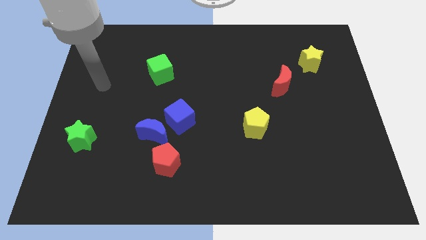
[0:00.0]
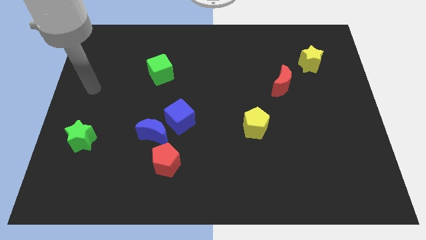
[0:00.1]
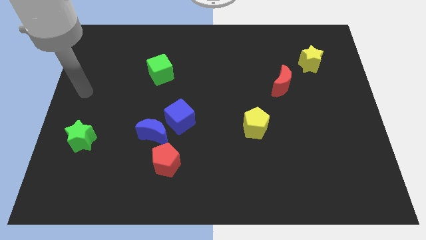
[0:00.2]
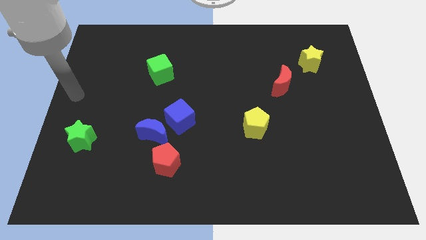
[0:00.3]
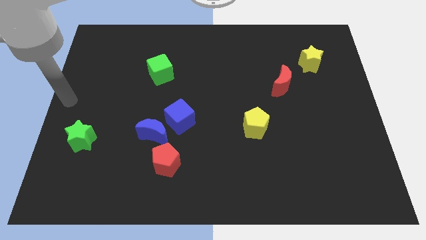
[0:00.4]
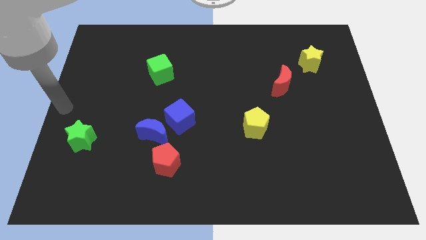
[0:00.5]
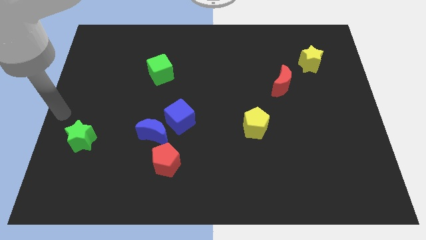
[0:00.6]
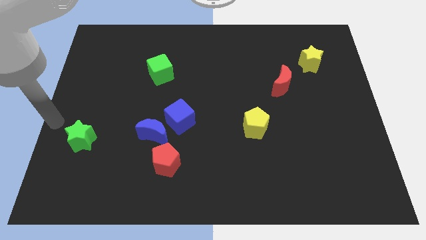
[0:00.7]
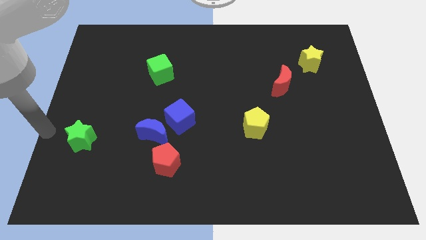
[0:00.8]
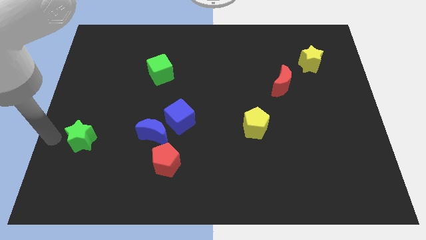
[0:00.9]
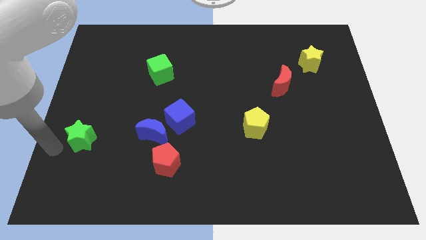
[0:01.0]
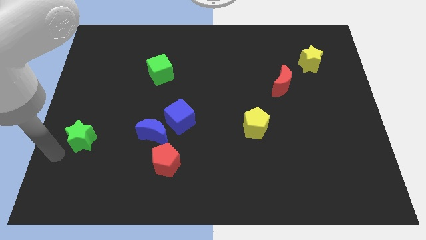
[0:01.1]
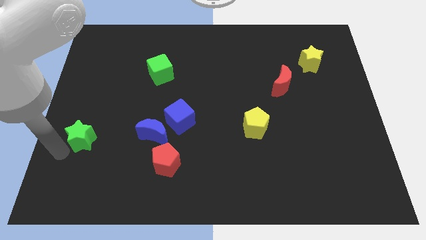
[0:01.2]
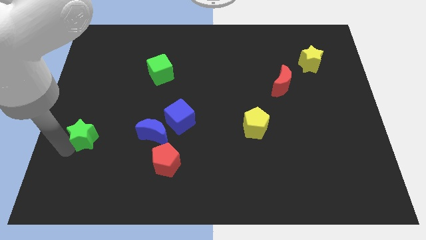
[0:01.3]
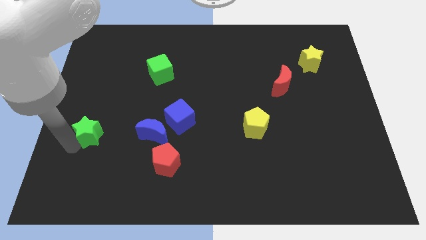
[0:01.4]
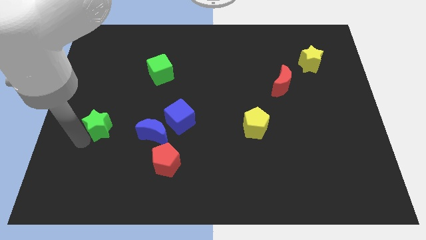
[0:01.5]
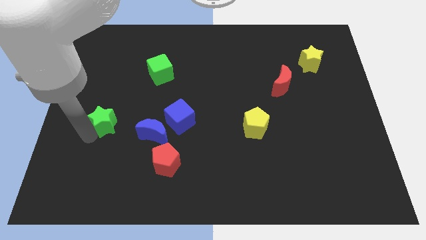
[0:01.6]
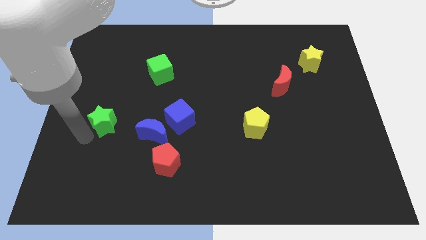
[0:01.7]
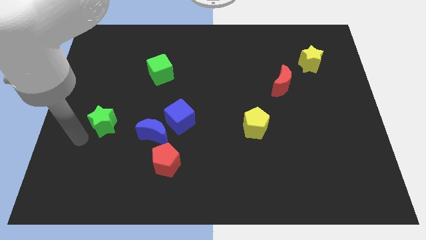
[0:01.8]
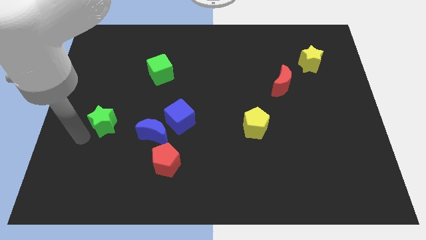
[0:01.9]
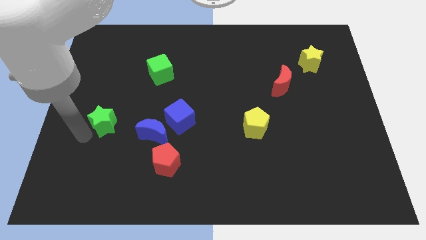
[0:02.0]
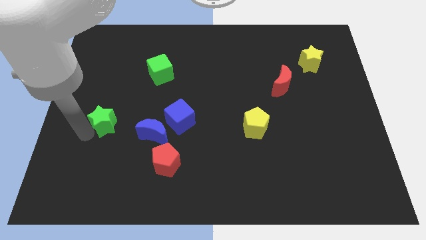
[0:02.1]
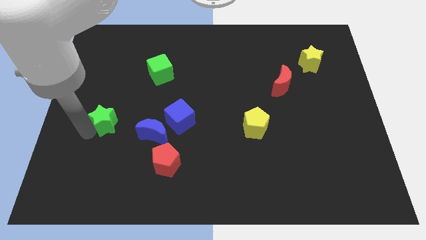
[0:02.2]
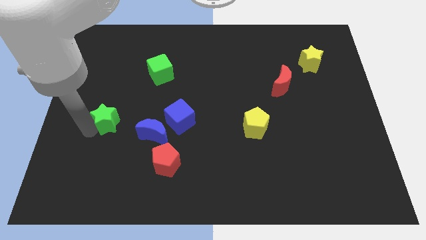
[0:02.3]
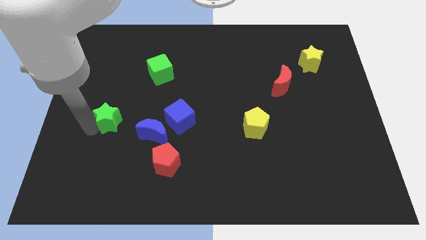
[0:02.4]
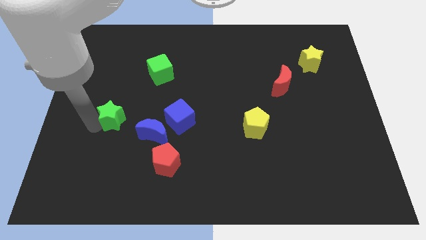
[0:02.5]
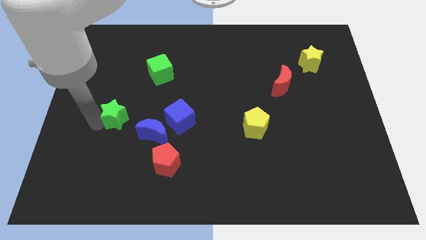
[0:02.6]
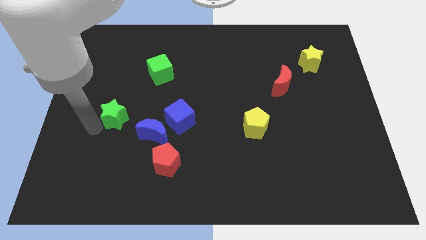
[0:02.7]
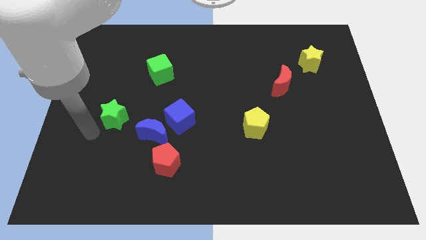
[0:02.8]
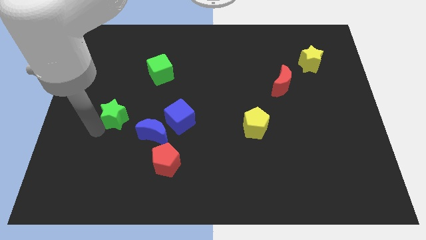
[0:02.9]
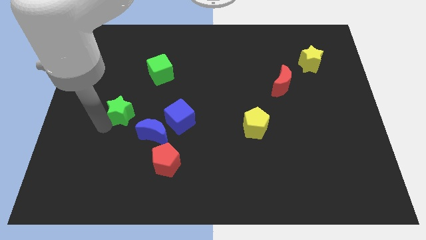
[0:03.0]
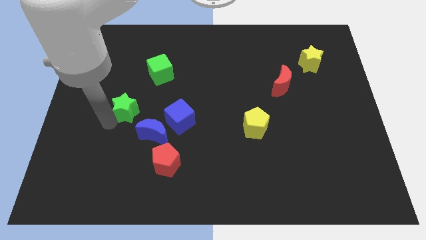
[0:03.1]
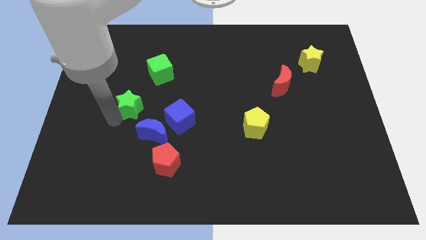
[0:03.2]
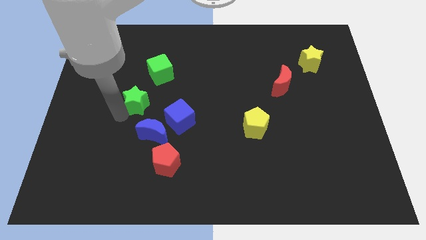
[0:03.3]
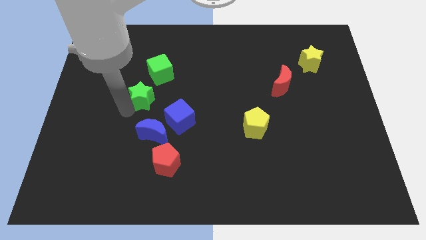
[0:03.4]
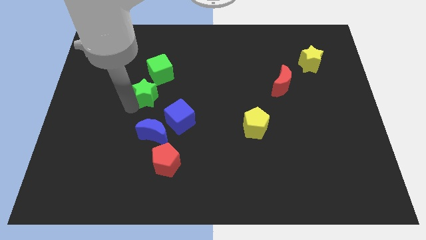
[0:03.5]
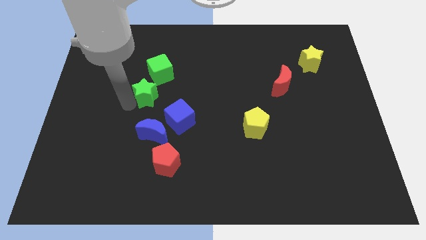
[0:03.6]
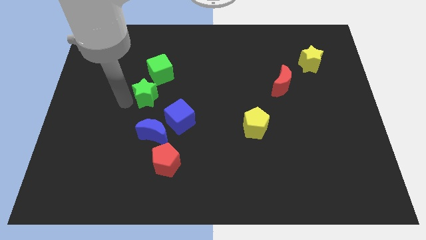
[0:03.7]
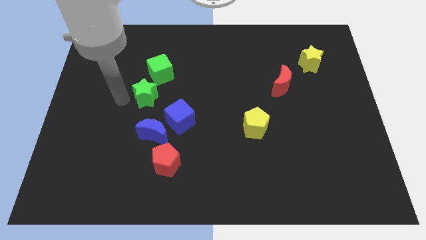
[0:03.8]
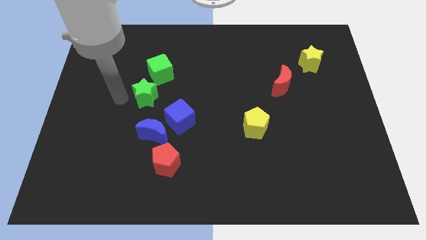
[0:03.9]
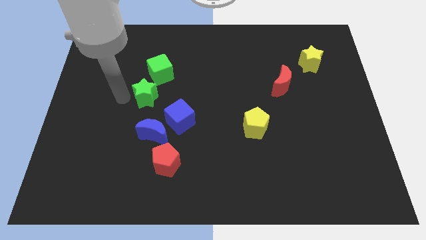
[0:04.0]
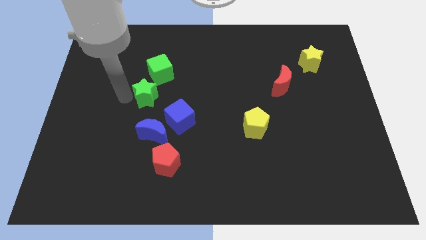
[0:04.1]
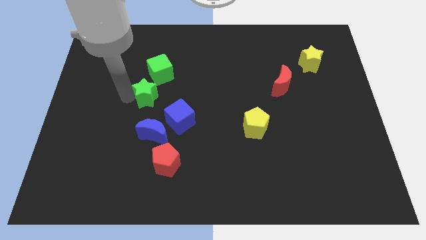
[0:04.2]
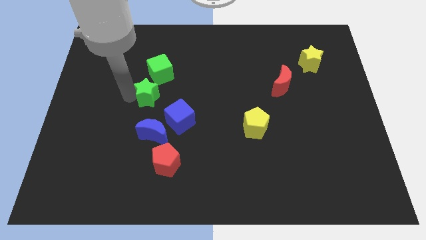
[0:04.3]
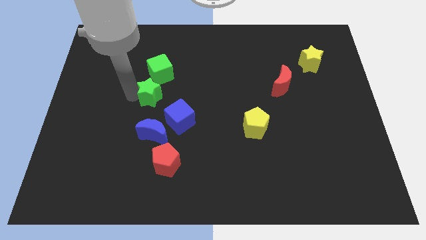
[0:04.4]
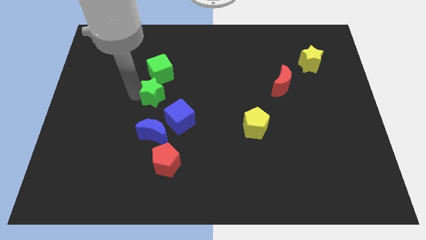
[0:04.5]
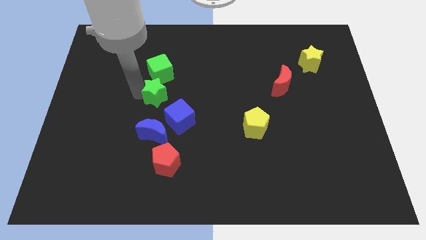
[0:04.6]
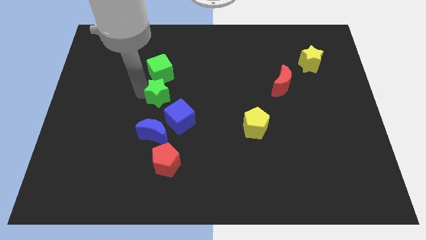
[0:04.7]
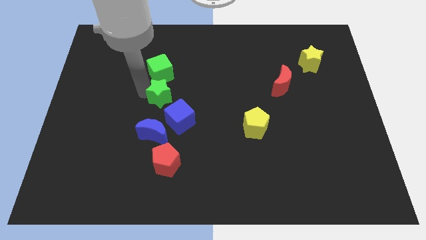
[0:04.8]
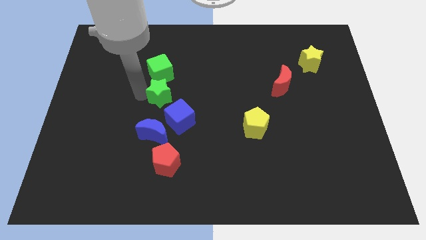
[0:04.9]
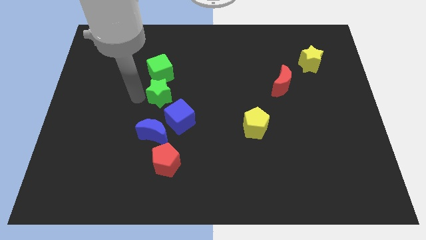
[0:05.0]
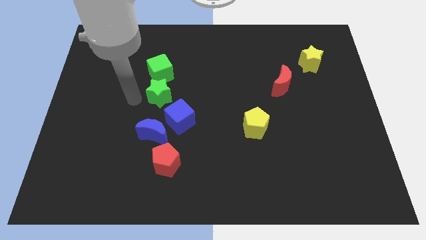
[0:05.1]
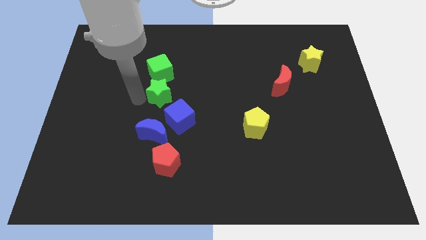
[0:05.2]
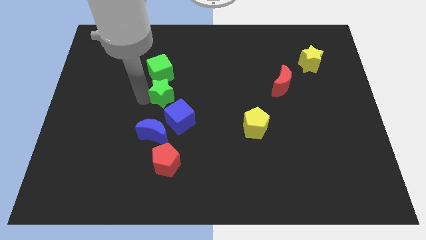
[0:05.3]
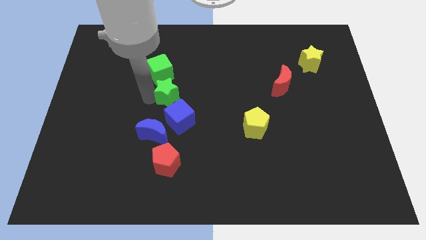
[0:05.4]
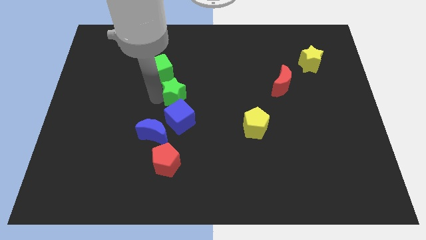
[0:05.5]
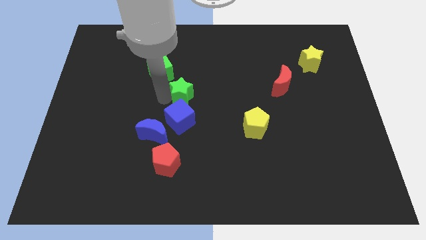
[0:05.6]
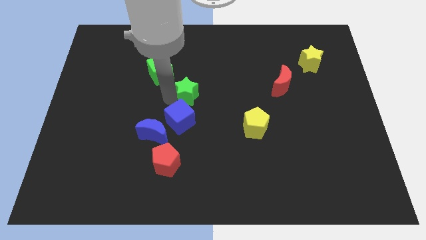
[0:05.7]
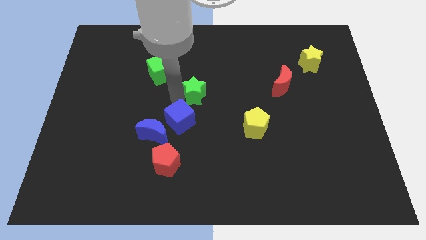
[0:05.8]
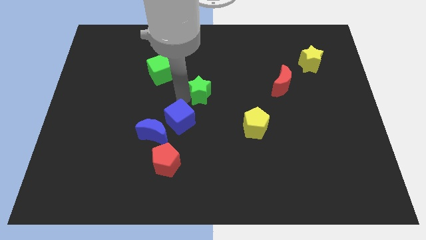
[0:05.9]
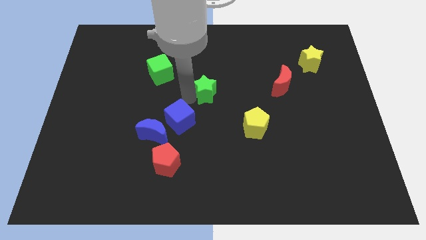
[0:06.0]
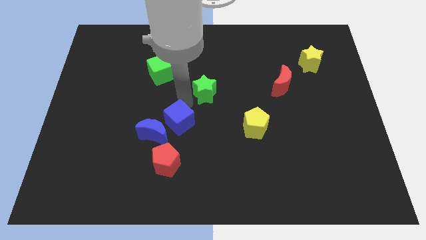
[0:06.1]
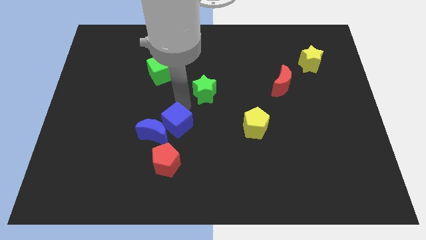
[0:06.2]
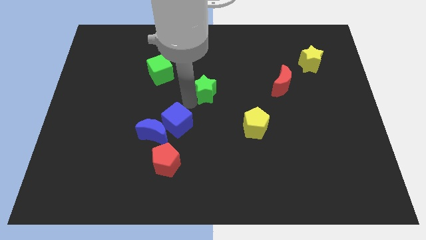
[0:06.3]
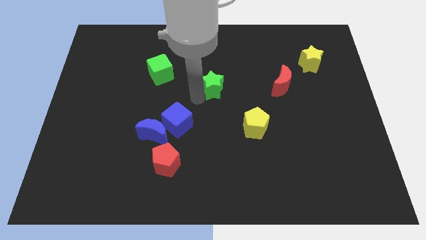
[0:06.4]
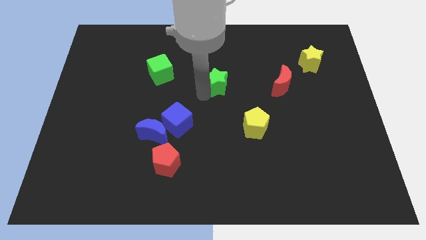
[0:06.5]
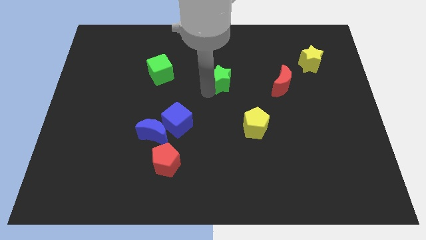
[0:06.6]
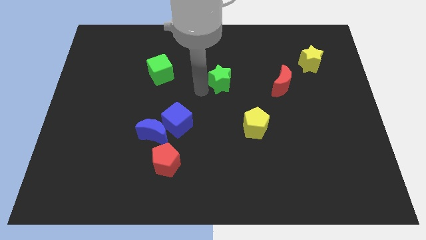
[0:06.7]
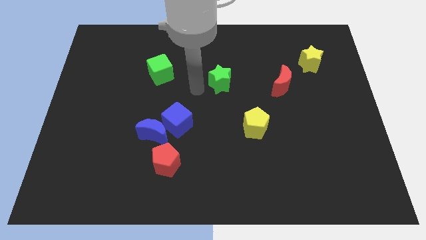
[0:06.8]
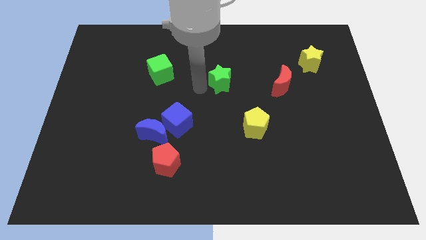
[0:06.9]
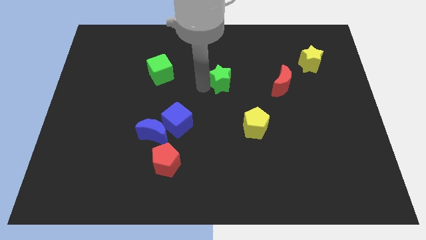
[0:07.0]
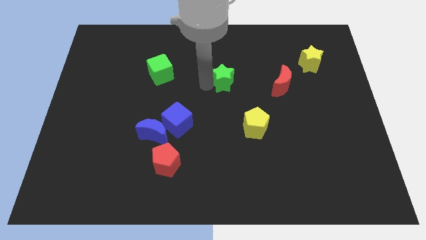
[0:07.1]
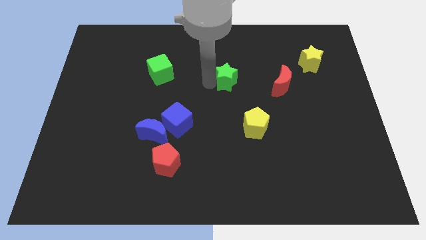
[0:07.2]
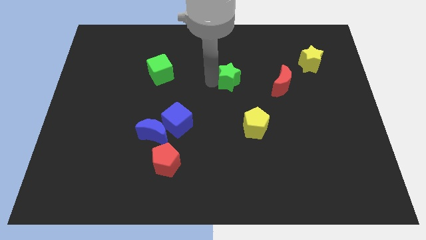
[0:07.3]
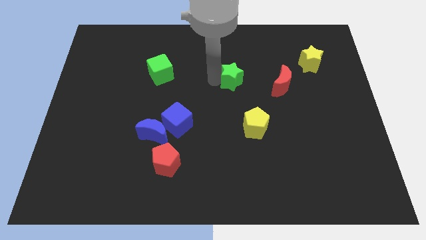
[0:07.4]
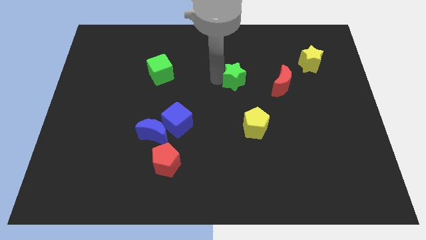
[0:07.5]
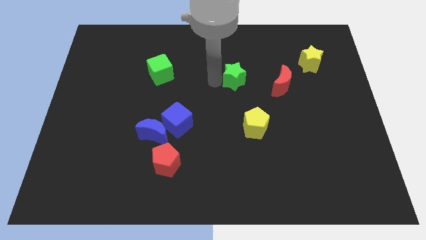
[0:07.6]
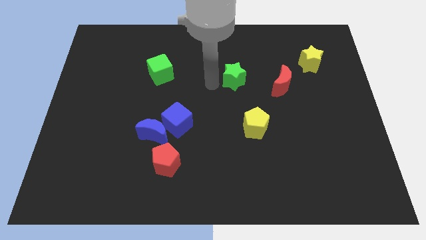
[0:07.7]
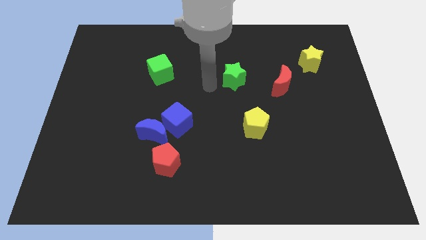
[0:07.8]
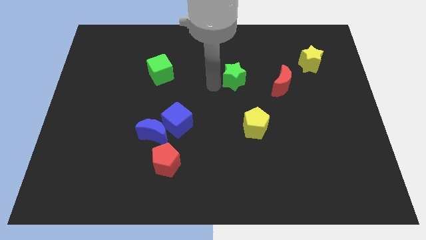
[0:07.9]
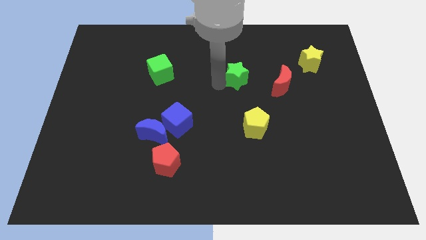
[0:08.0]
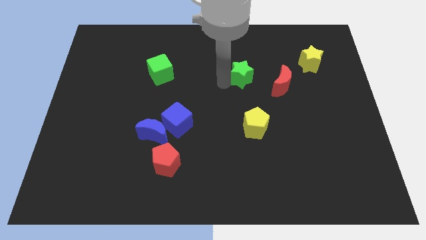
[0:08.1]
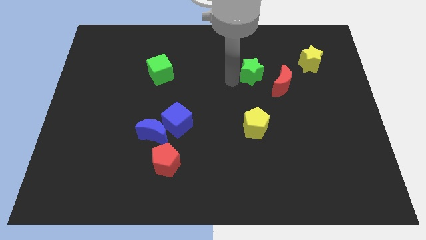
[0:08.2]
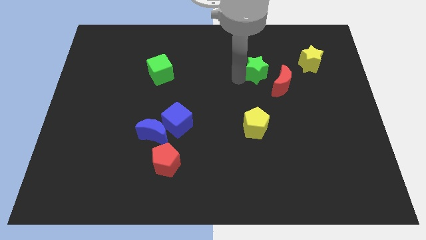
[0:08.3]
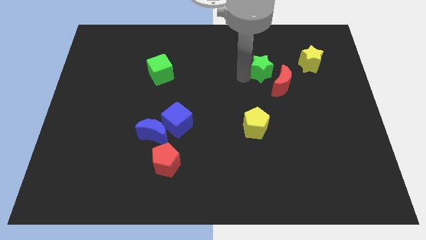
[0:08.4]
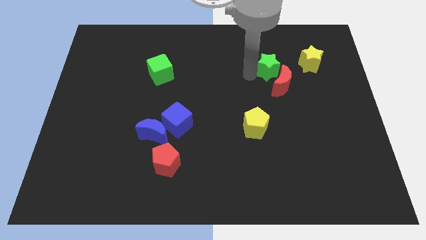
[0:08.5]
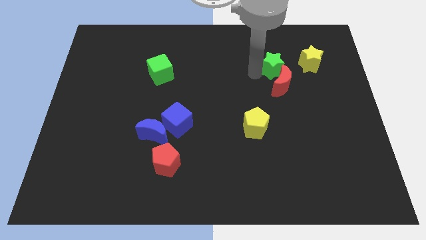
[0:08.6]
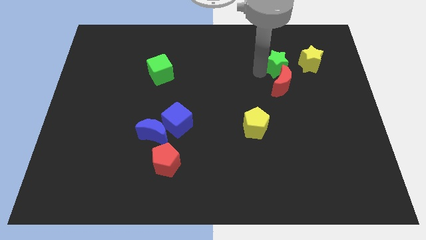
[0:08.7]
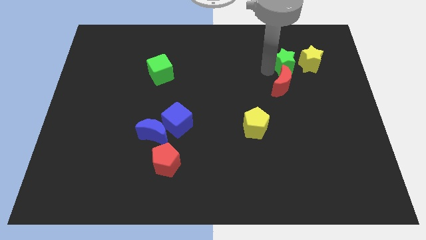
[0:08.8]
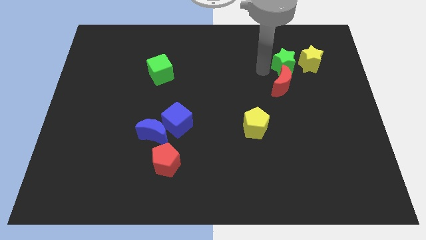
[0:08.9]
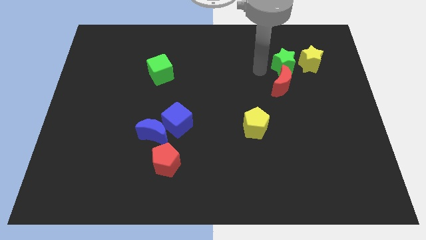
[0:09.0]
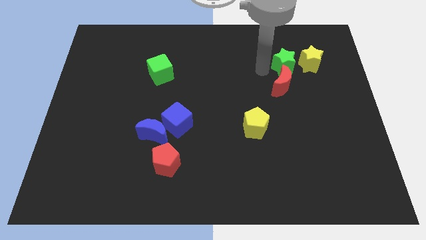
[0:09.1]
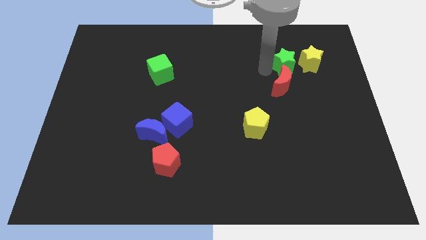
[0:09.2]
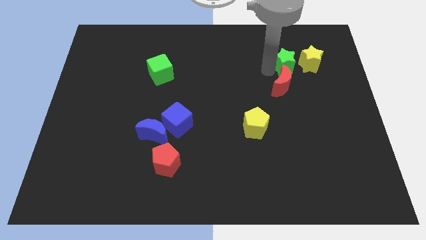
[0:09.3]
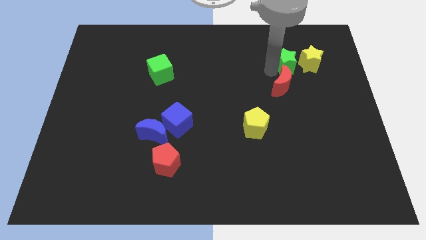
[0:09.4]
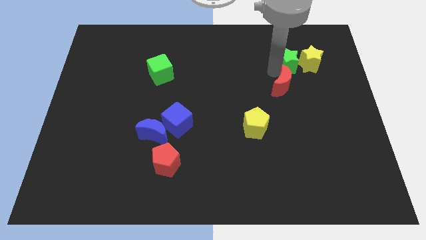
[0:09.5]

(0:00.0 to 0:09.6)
push the green star next to the yellow star
